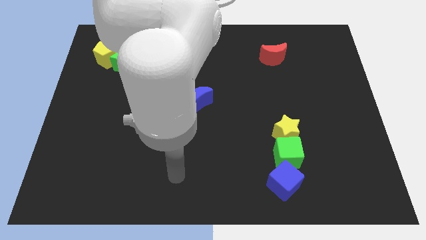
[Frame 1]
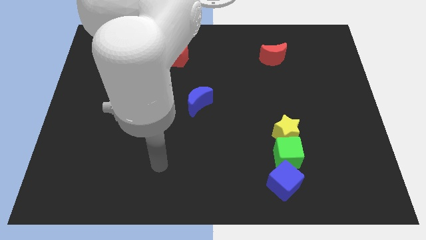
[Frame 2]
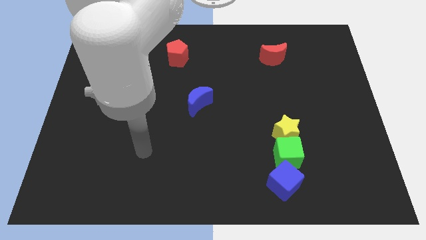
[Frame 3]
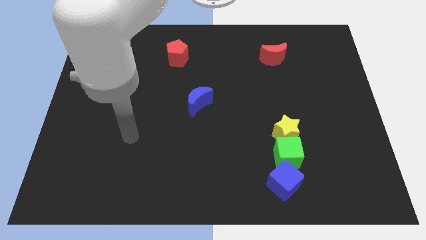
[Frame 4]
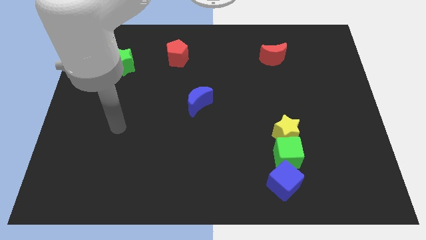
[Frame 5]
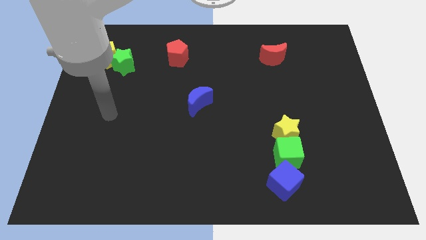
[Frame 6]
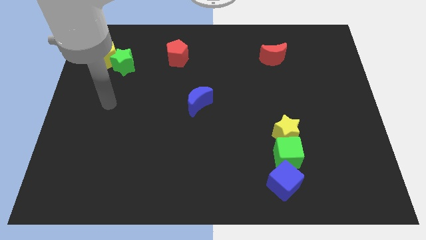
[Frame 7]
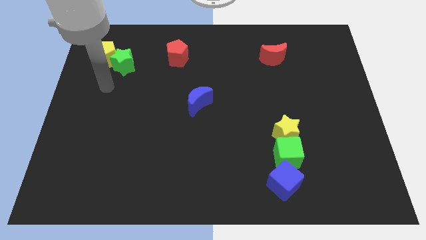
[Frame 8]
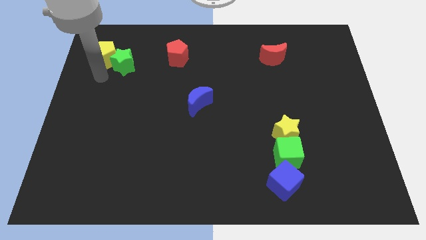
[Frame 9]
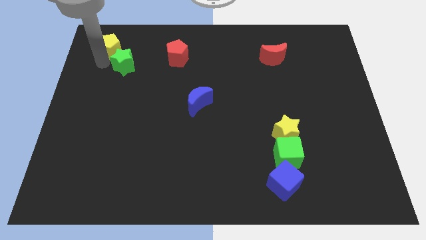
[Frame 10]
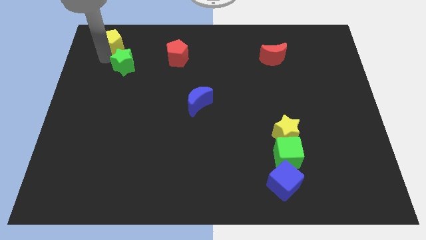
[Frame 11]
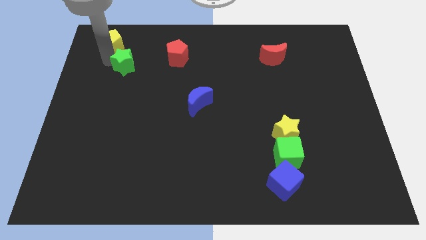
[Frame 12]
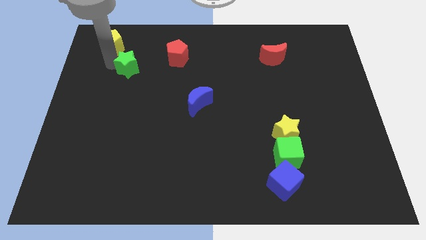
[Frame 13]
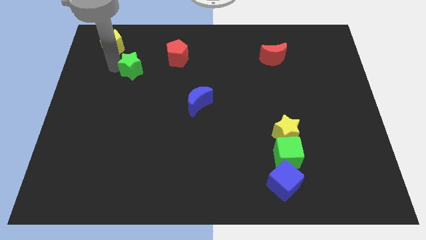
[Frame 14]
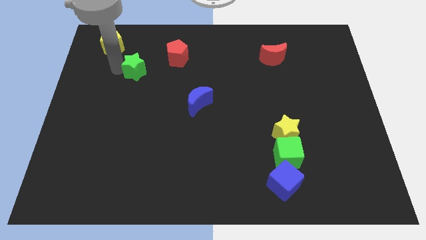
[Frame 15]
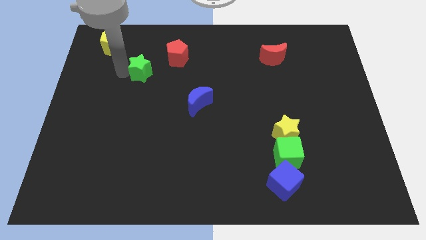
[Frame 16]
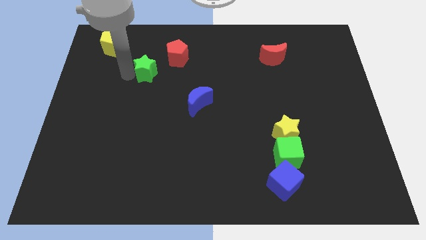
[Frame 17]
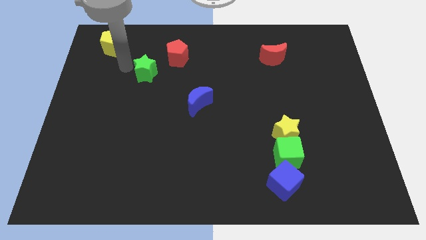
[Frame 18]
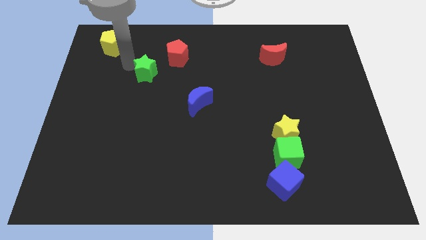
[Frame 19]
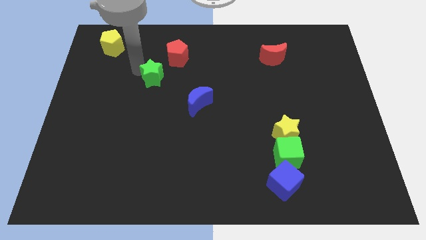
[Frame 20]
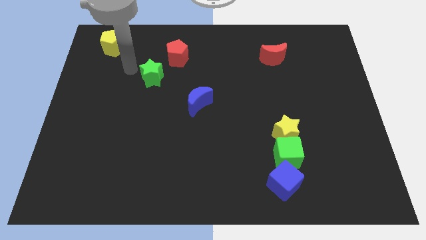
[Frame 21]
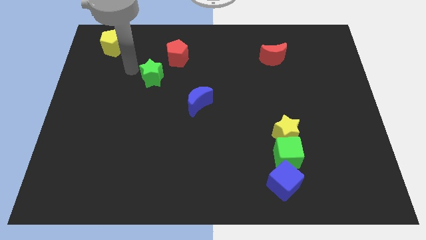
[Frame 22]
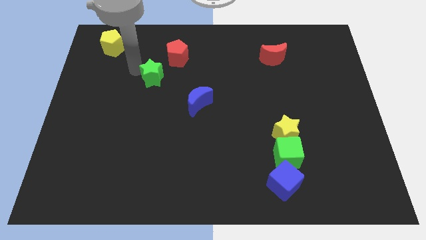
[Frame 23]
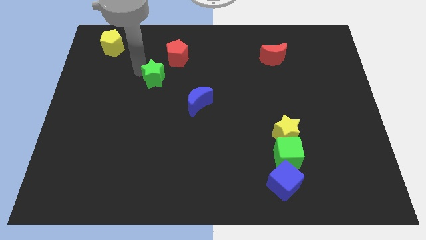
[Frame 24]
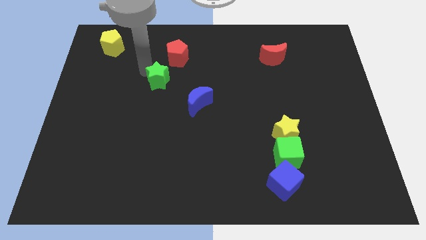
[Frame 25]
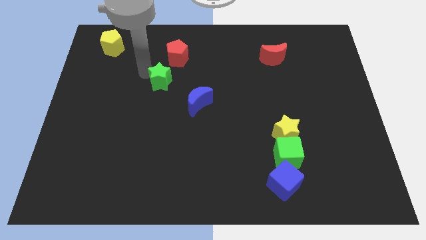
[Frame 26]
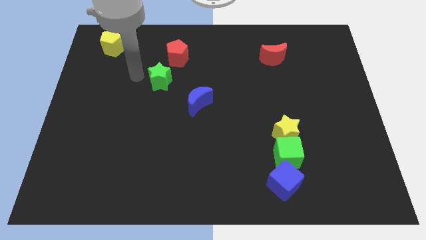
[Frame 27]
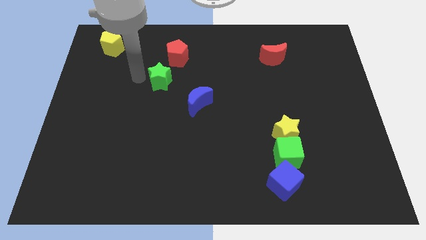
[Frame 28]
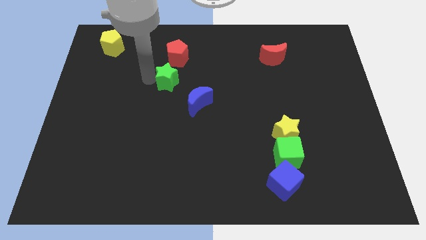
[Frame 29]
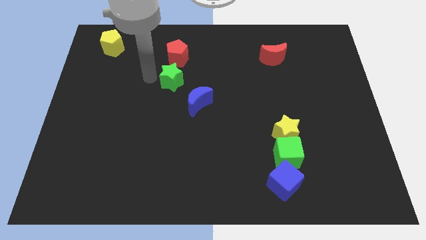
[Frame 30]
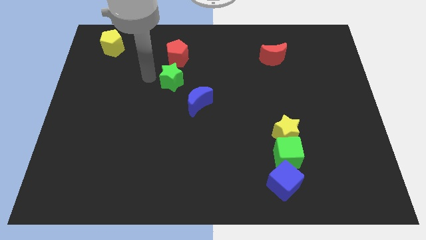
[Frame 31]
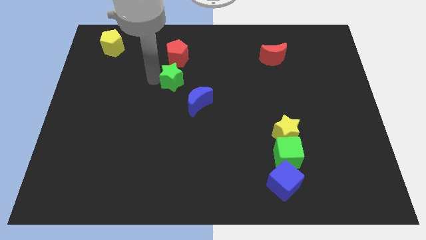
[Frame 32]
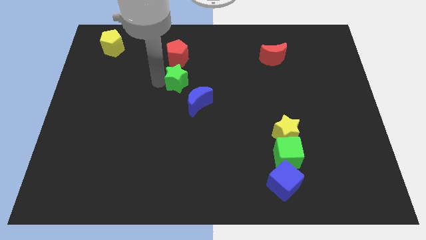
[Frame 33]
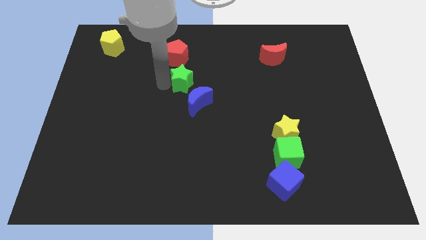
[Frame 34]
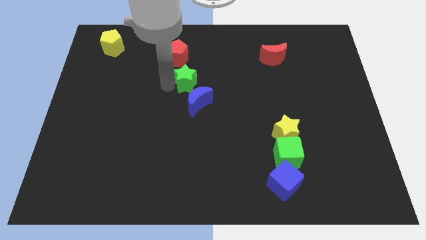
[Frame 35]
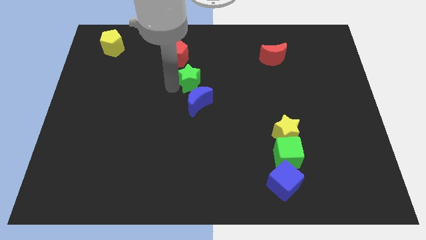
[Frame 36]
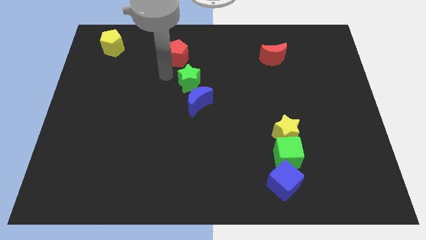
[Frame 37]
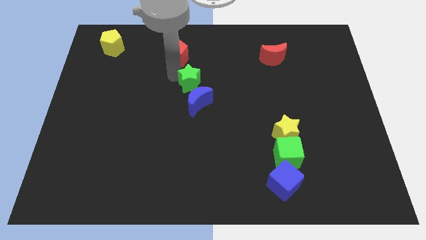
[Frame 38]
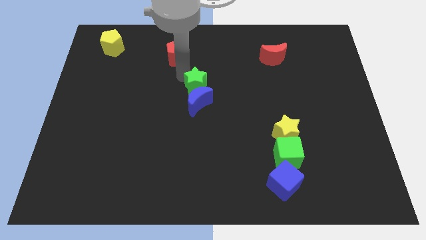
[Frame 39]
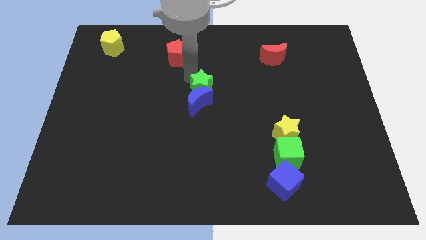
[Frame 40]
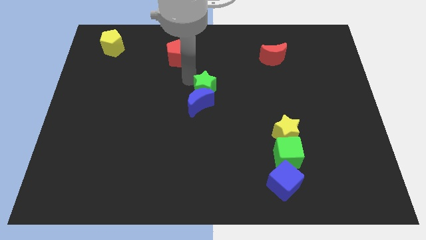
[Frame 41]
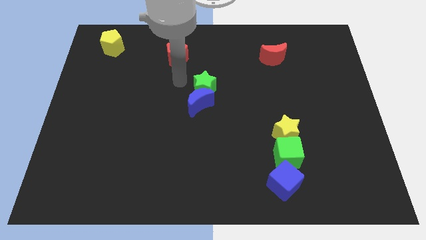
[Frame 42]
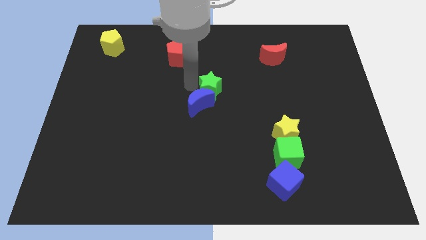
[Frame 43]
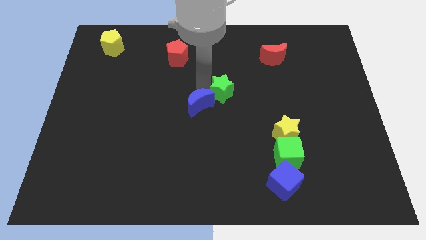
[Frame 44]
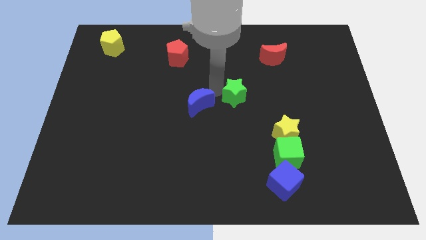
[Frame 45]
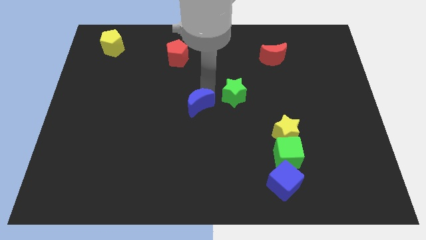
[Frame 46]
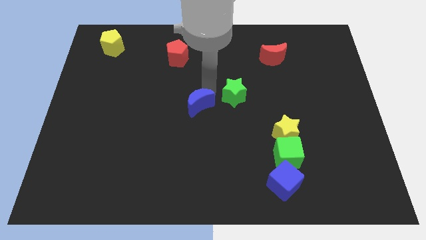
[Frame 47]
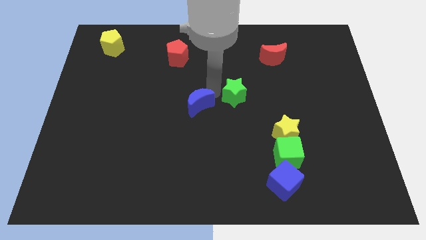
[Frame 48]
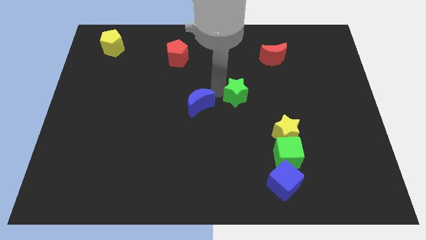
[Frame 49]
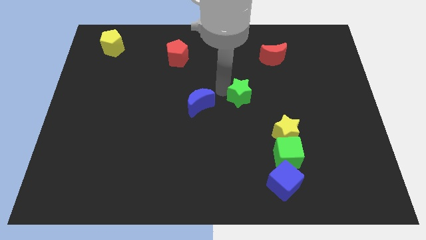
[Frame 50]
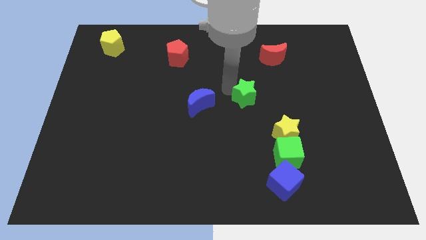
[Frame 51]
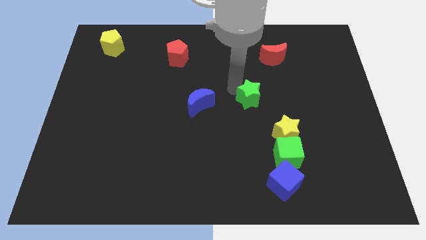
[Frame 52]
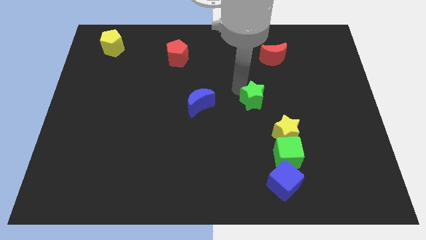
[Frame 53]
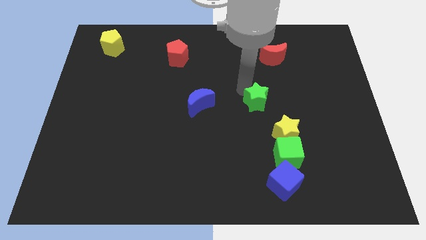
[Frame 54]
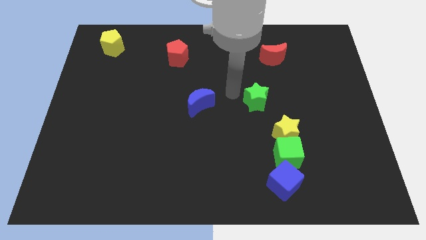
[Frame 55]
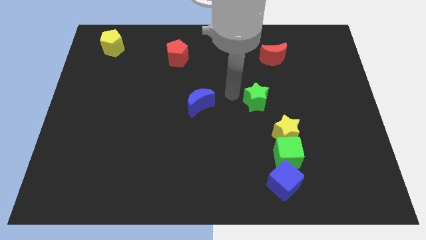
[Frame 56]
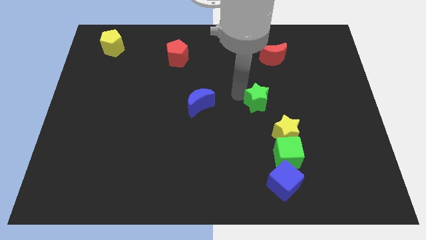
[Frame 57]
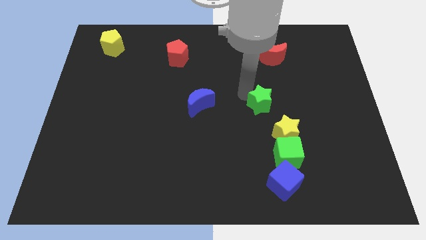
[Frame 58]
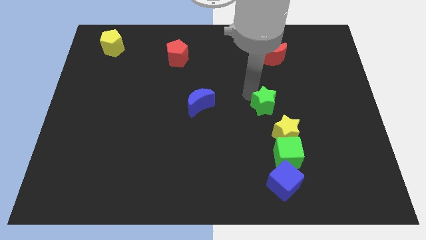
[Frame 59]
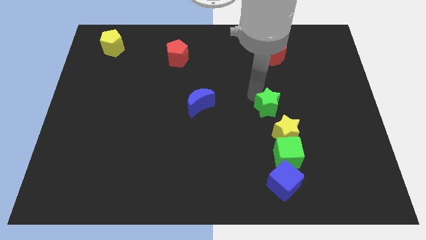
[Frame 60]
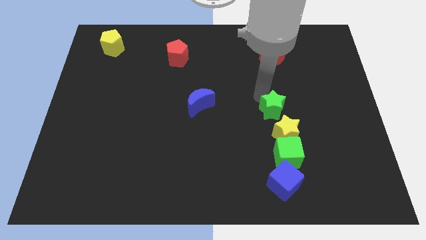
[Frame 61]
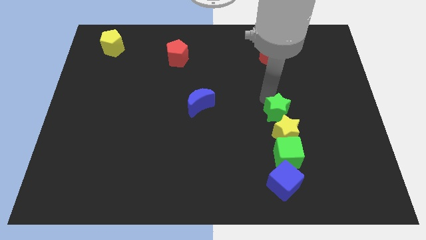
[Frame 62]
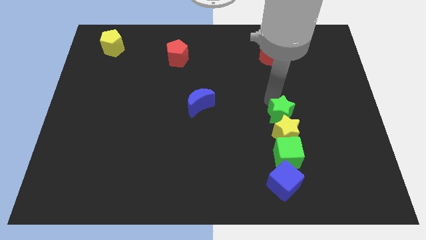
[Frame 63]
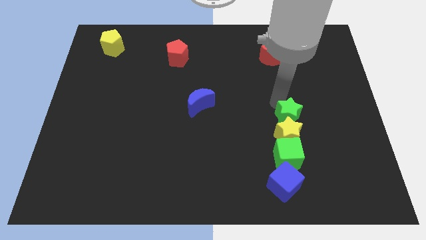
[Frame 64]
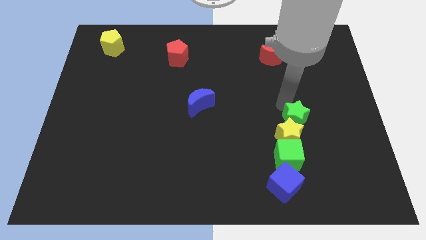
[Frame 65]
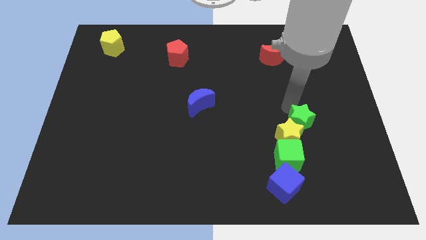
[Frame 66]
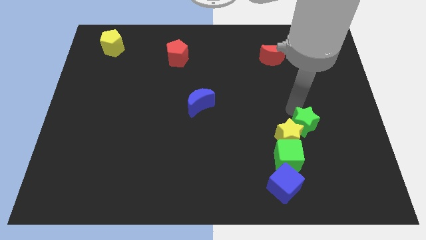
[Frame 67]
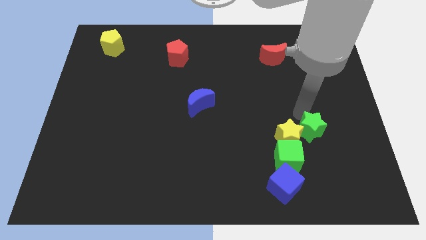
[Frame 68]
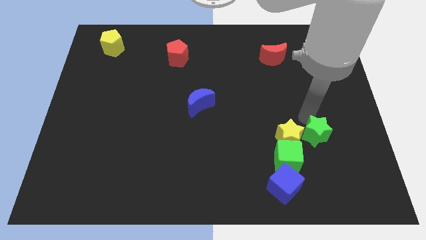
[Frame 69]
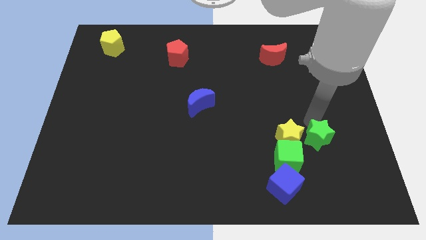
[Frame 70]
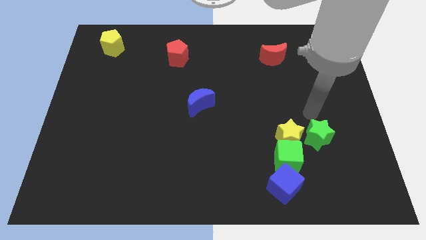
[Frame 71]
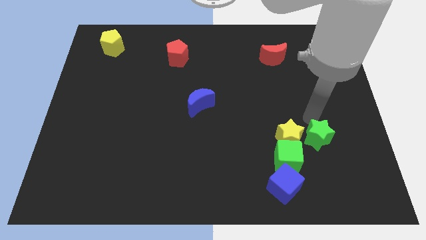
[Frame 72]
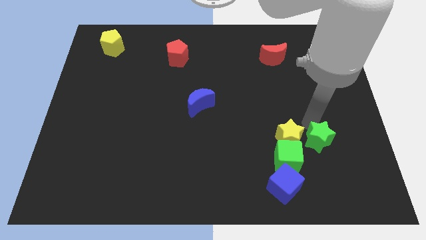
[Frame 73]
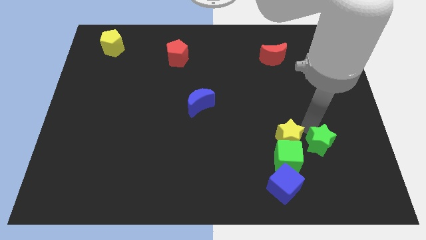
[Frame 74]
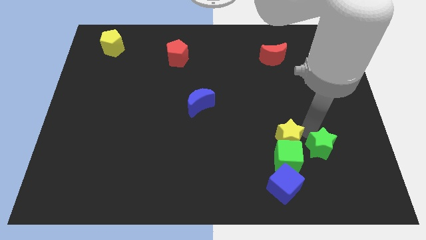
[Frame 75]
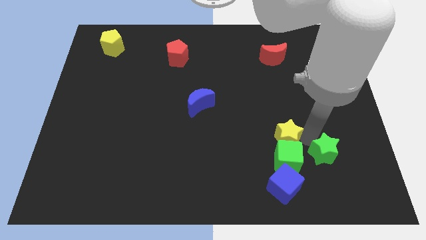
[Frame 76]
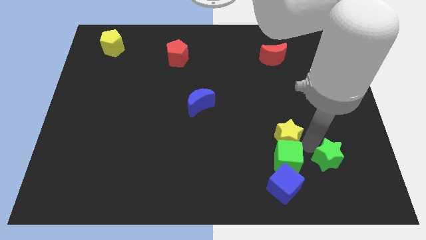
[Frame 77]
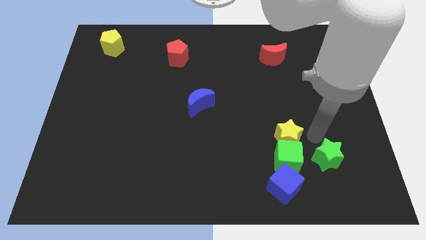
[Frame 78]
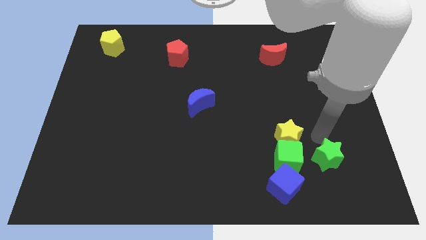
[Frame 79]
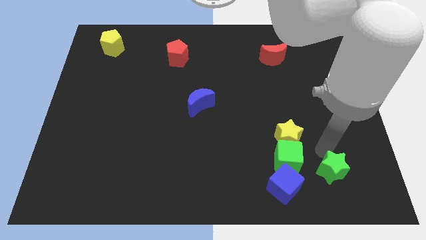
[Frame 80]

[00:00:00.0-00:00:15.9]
push the green star right of the blue cube
